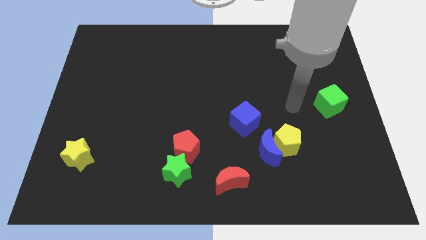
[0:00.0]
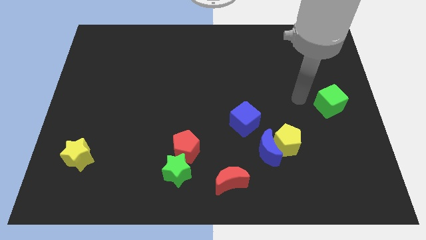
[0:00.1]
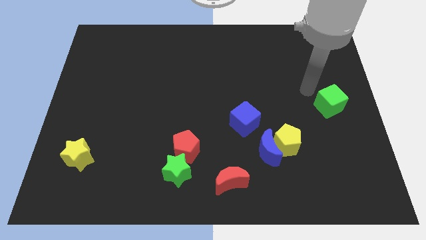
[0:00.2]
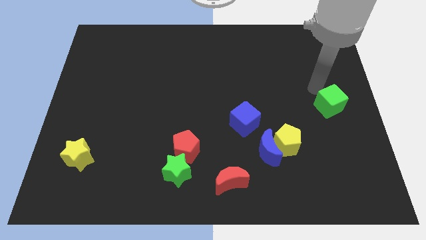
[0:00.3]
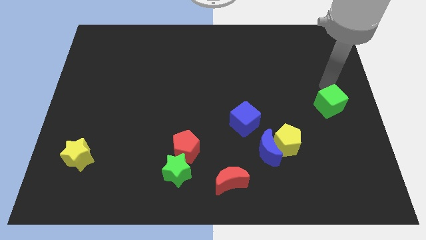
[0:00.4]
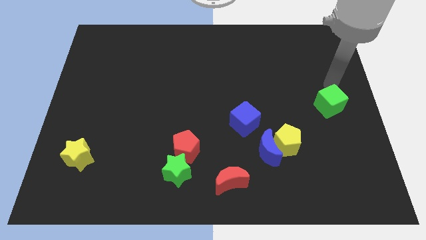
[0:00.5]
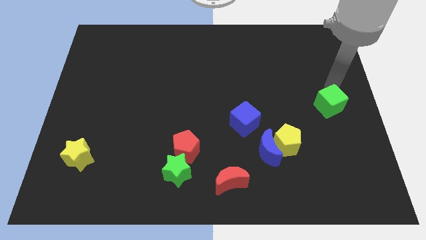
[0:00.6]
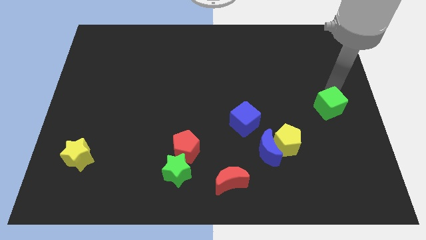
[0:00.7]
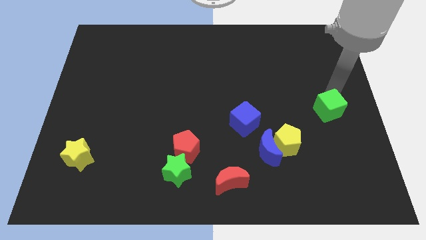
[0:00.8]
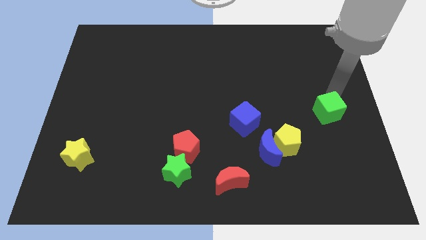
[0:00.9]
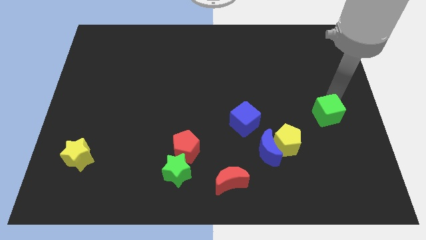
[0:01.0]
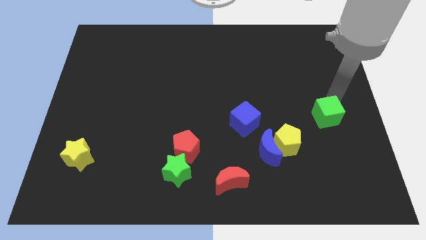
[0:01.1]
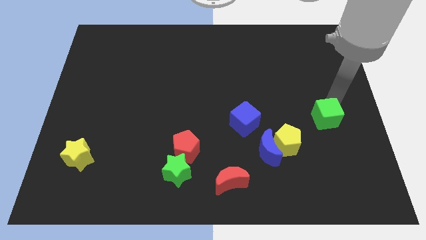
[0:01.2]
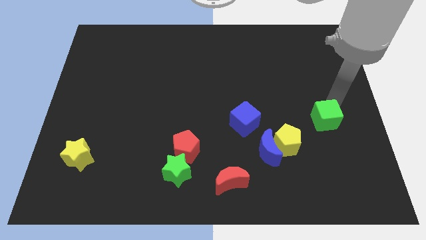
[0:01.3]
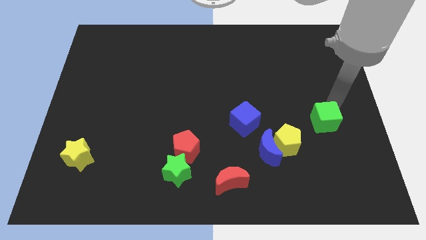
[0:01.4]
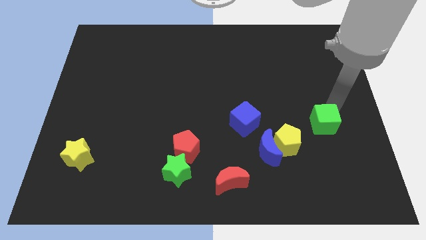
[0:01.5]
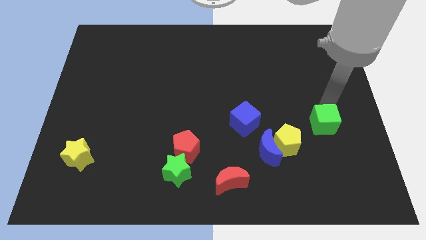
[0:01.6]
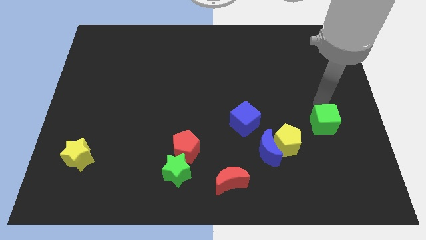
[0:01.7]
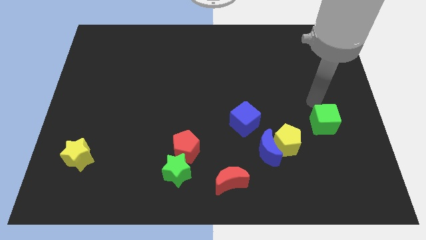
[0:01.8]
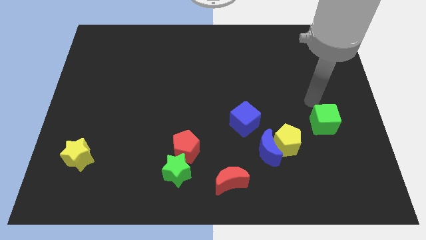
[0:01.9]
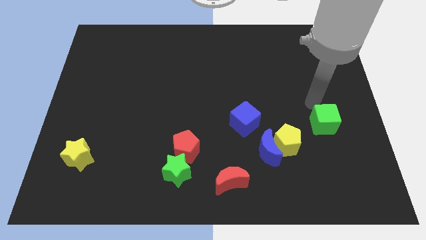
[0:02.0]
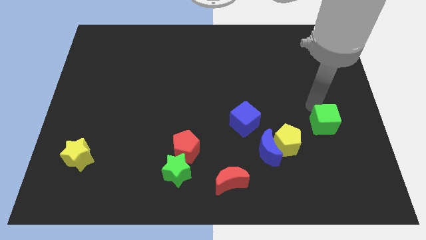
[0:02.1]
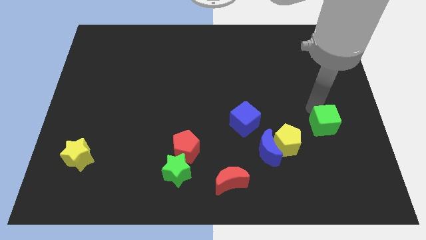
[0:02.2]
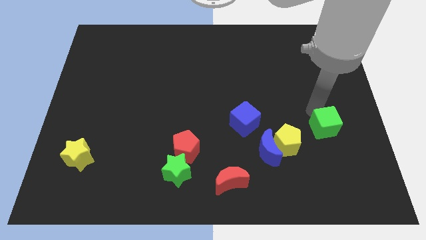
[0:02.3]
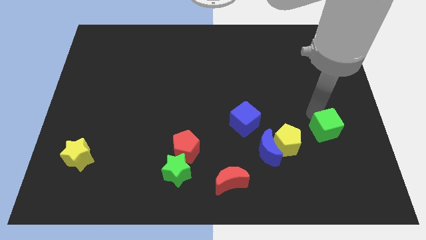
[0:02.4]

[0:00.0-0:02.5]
slightly move the green cube downwards

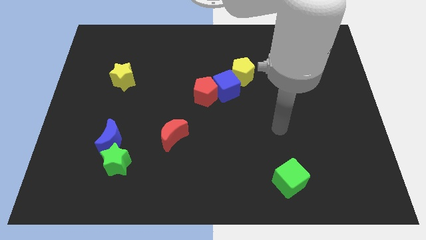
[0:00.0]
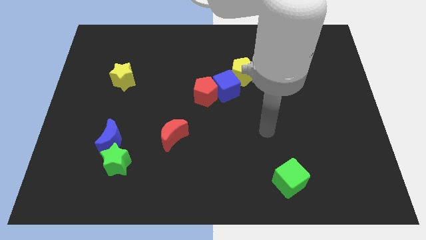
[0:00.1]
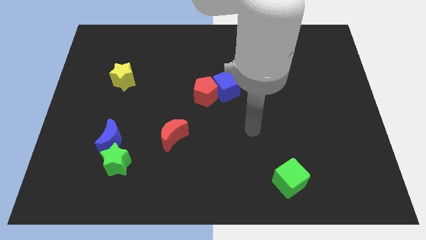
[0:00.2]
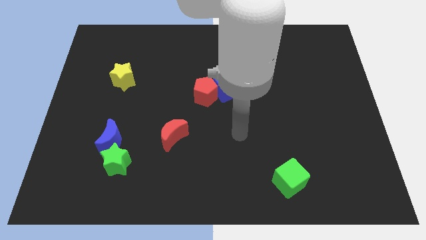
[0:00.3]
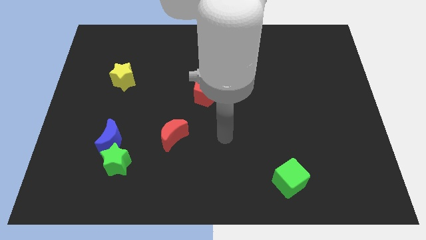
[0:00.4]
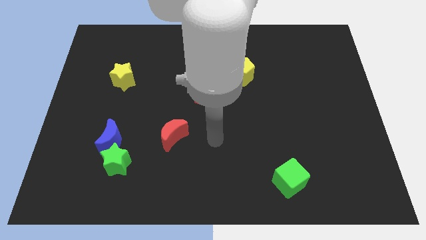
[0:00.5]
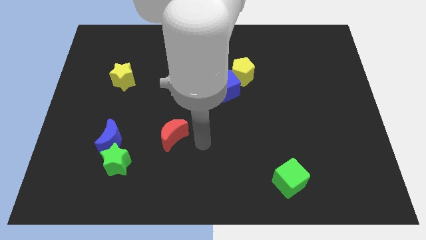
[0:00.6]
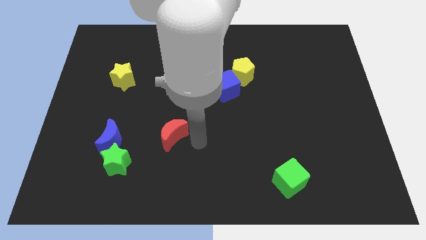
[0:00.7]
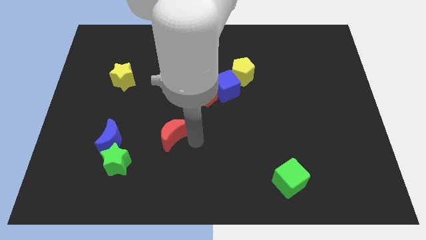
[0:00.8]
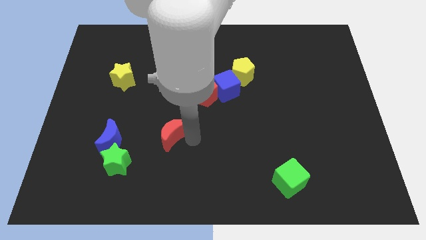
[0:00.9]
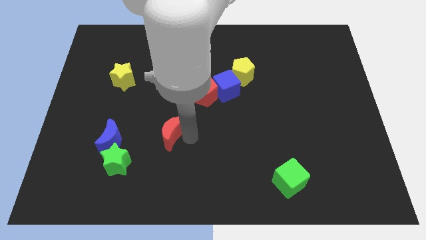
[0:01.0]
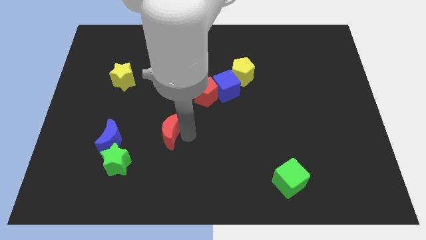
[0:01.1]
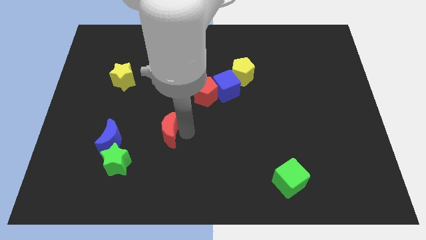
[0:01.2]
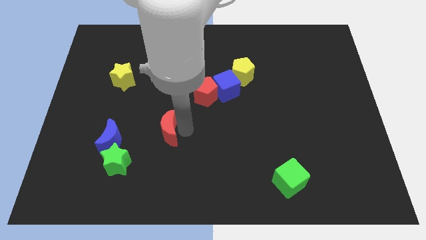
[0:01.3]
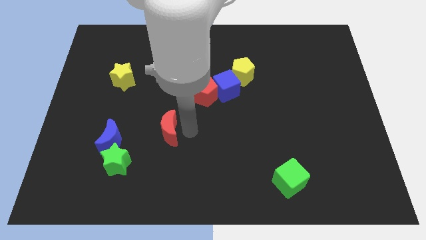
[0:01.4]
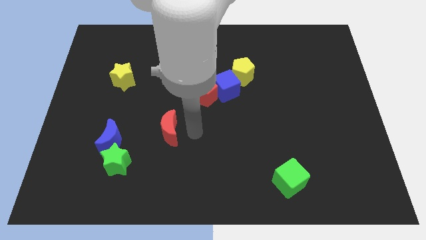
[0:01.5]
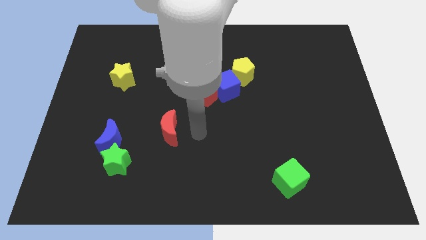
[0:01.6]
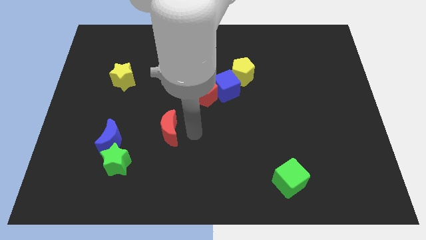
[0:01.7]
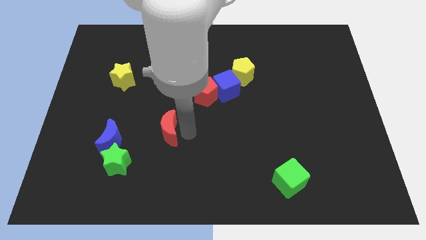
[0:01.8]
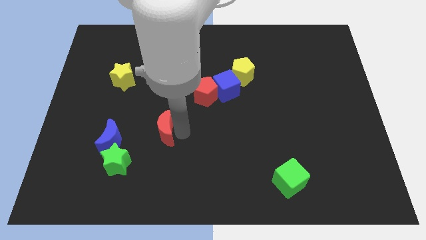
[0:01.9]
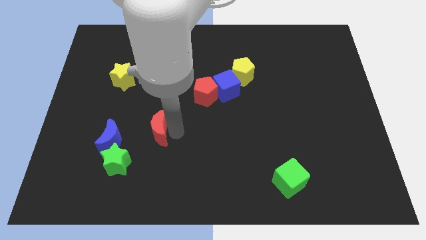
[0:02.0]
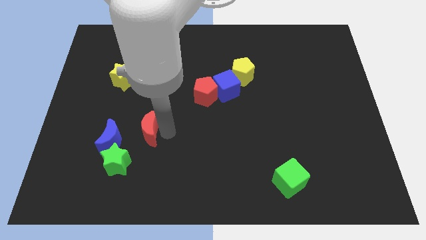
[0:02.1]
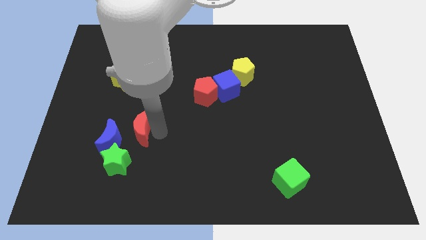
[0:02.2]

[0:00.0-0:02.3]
move the red moon slightly to the left

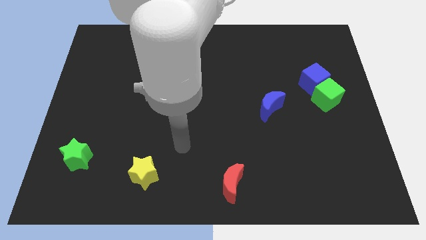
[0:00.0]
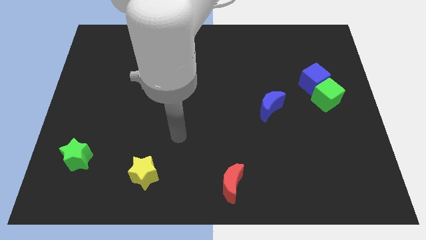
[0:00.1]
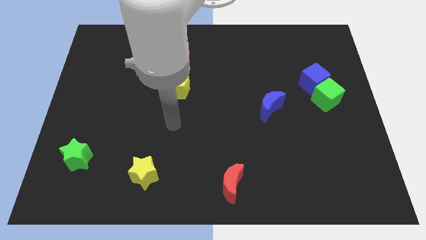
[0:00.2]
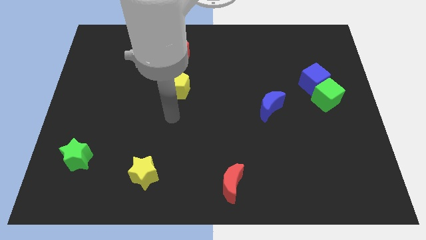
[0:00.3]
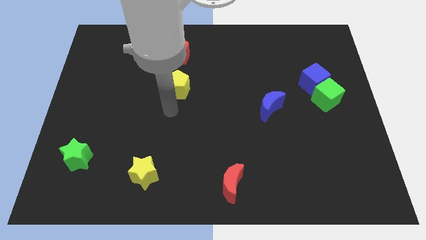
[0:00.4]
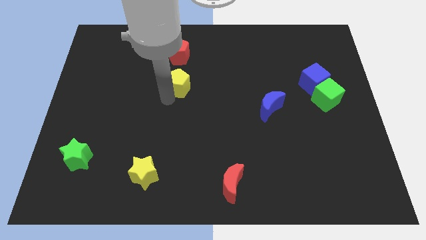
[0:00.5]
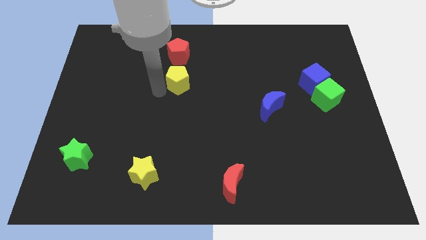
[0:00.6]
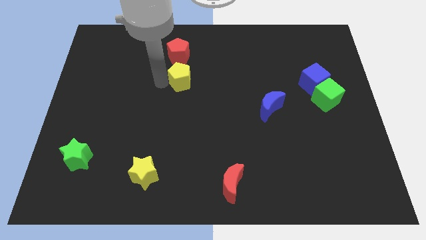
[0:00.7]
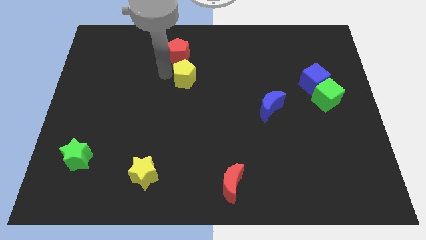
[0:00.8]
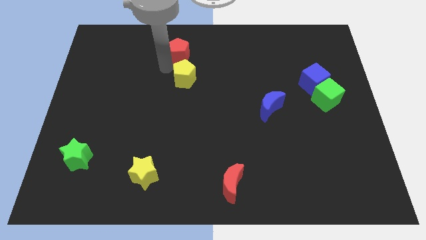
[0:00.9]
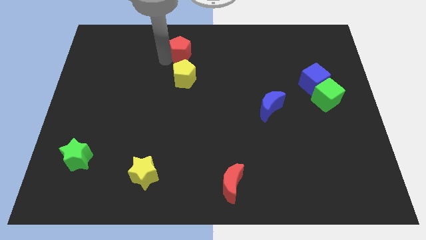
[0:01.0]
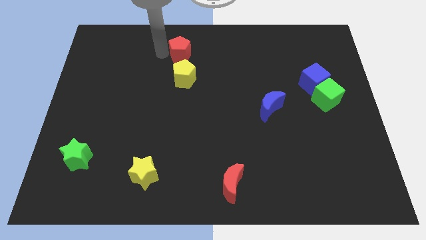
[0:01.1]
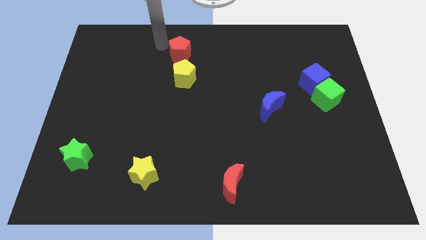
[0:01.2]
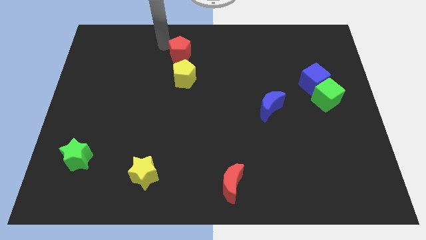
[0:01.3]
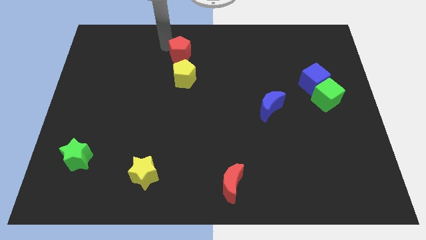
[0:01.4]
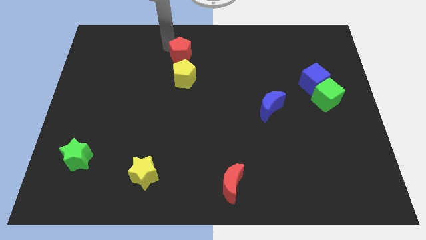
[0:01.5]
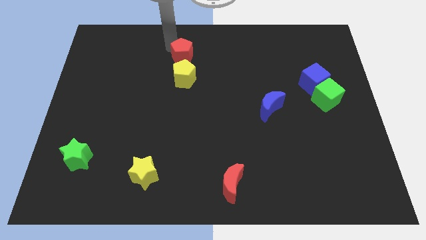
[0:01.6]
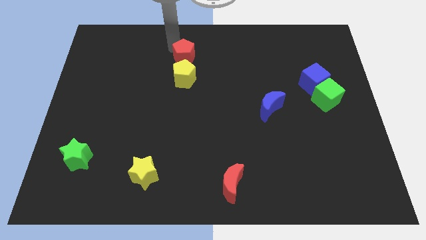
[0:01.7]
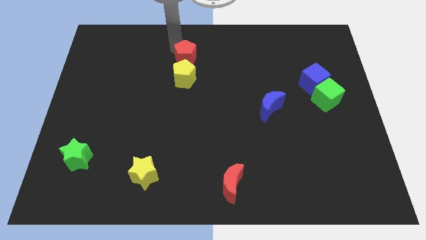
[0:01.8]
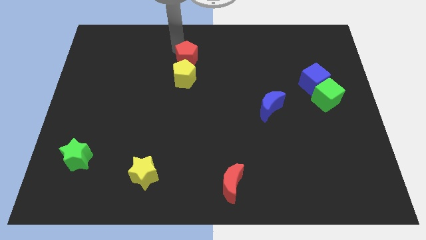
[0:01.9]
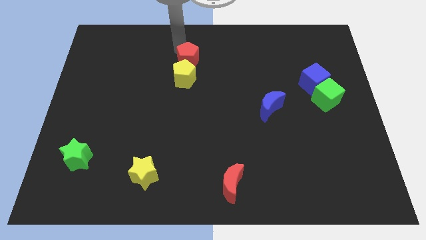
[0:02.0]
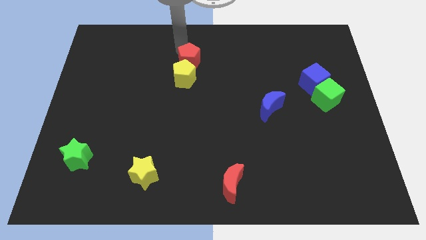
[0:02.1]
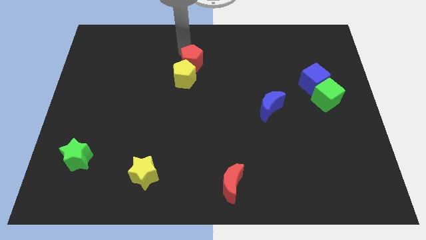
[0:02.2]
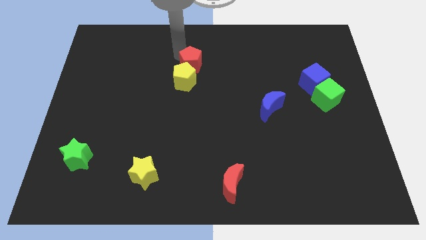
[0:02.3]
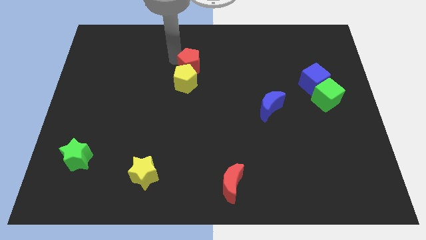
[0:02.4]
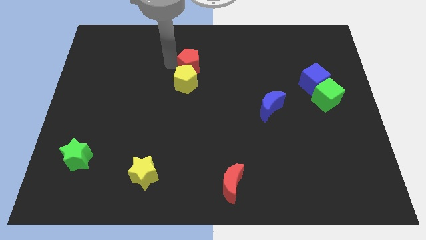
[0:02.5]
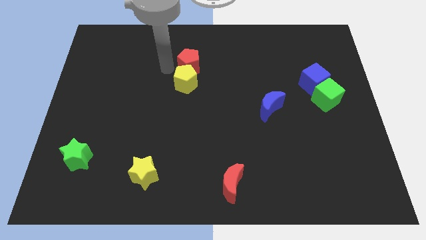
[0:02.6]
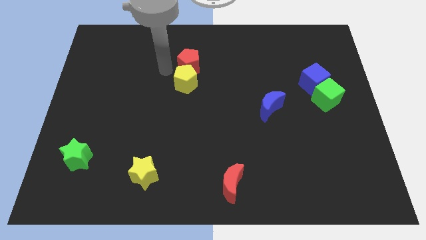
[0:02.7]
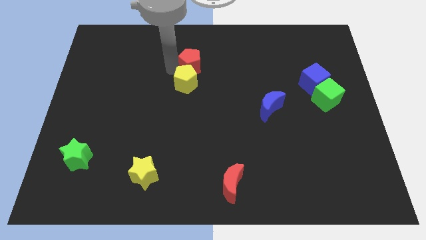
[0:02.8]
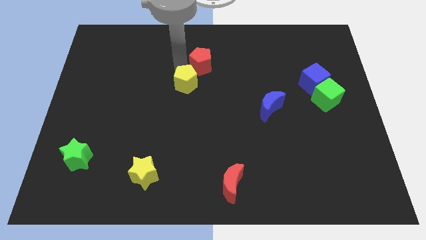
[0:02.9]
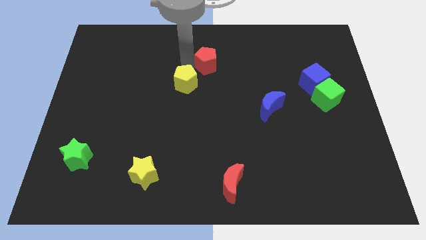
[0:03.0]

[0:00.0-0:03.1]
move the red pentagon to the right slightly
